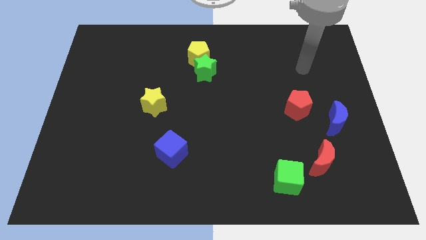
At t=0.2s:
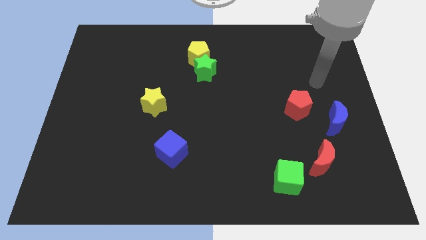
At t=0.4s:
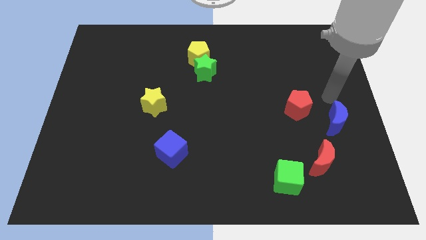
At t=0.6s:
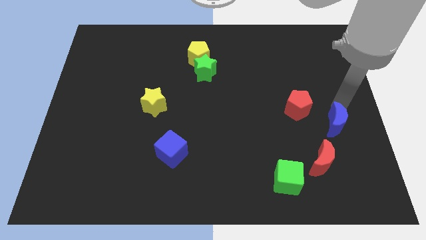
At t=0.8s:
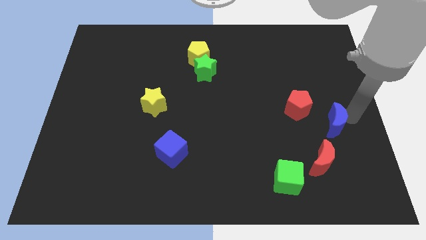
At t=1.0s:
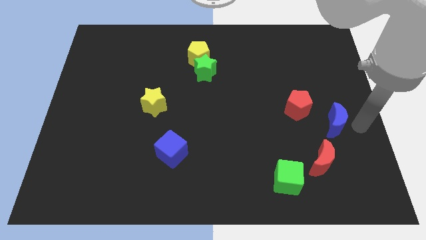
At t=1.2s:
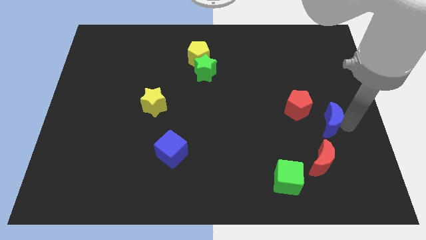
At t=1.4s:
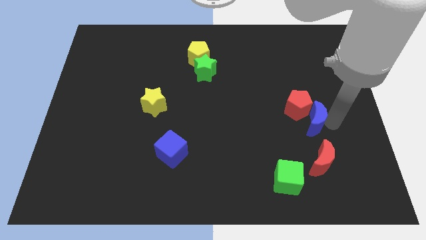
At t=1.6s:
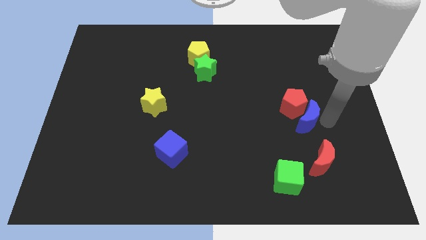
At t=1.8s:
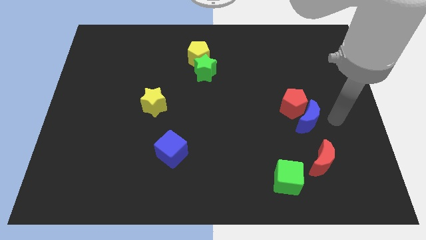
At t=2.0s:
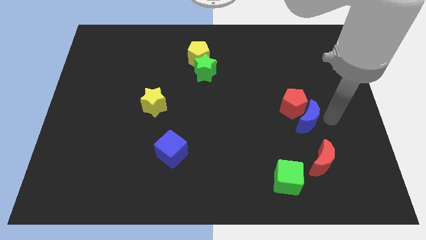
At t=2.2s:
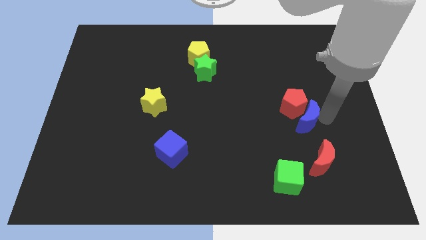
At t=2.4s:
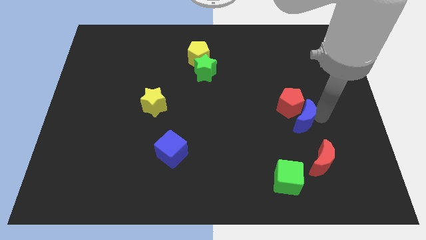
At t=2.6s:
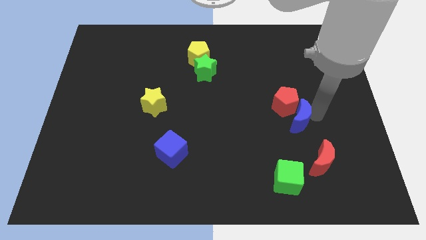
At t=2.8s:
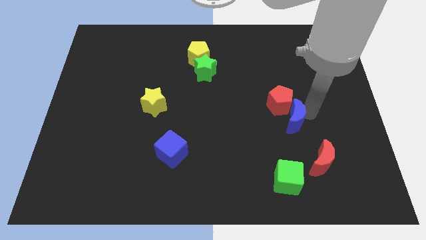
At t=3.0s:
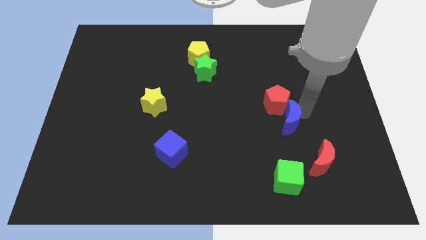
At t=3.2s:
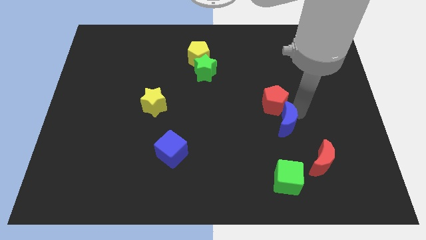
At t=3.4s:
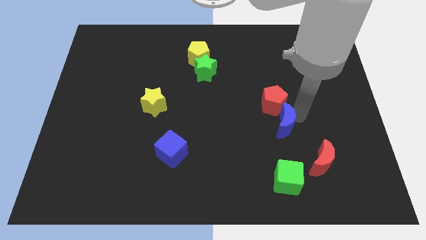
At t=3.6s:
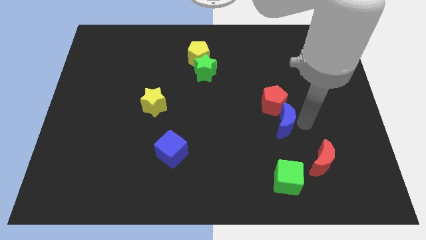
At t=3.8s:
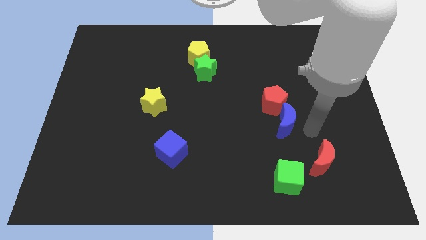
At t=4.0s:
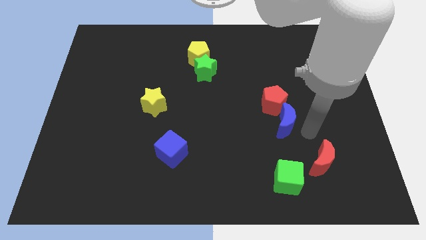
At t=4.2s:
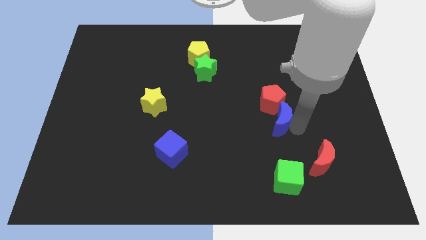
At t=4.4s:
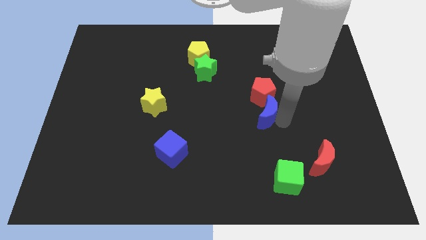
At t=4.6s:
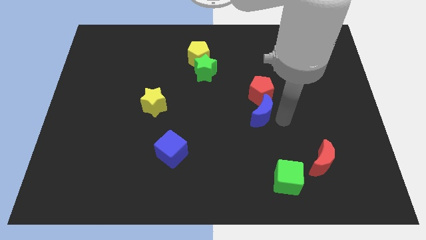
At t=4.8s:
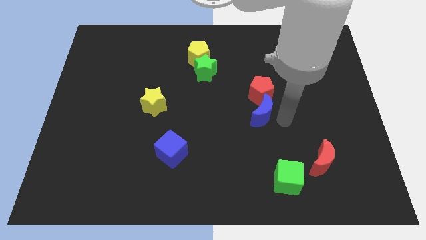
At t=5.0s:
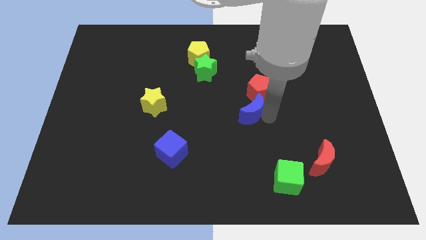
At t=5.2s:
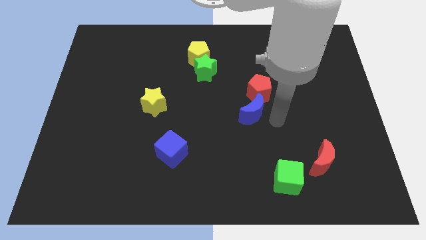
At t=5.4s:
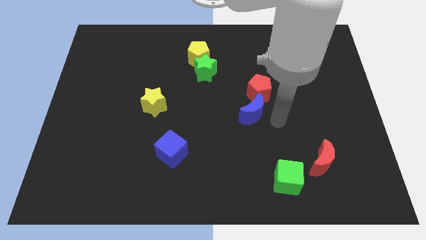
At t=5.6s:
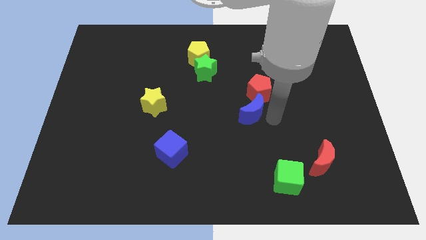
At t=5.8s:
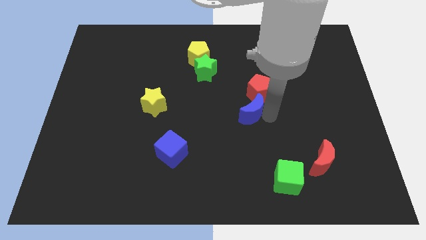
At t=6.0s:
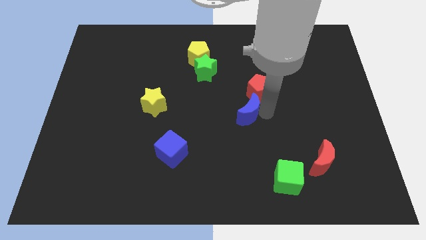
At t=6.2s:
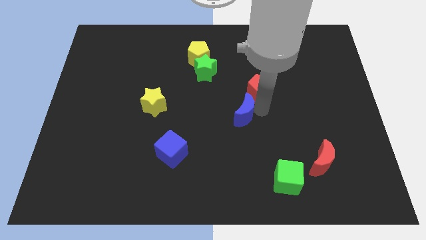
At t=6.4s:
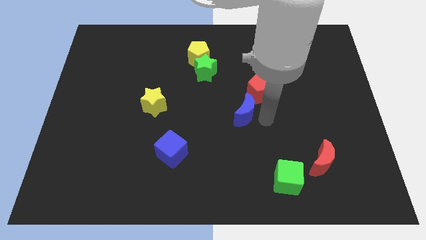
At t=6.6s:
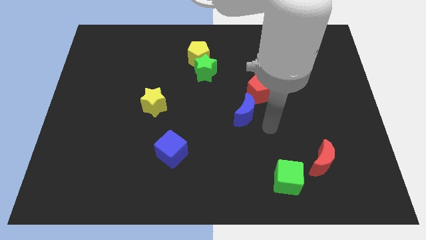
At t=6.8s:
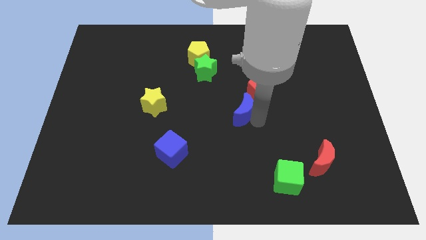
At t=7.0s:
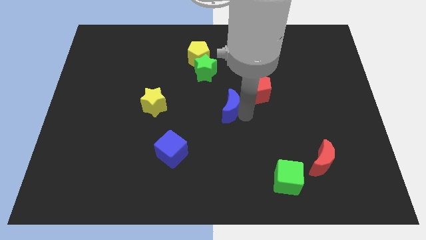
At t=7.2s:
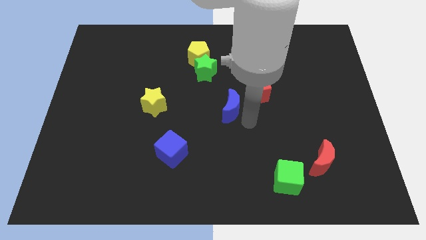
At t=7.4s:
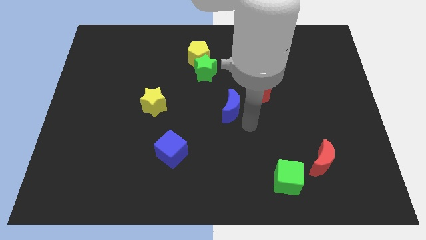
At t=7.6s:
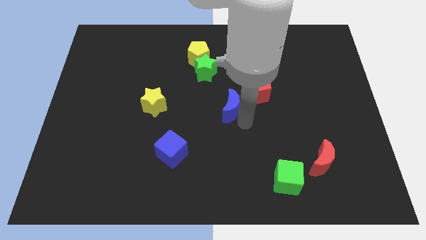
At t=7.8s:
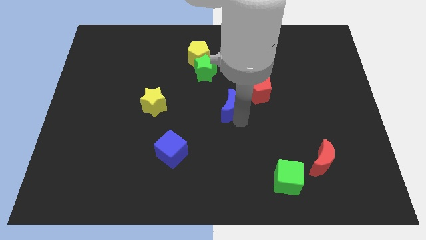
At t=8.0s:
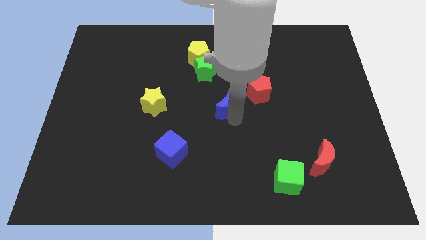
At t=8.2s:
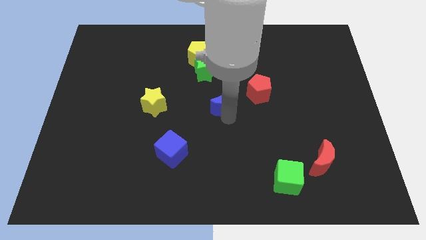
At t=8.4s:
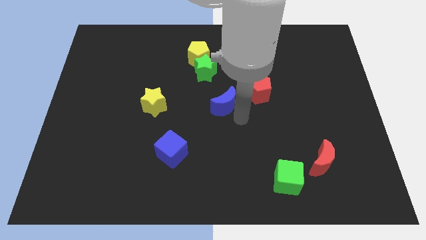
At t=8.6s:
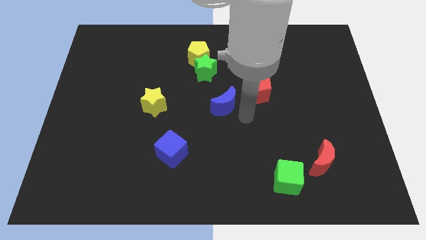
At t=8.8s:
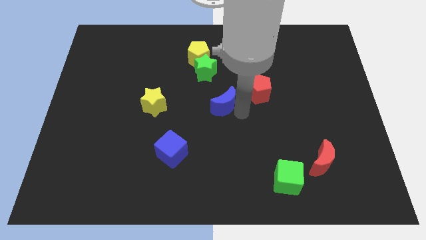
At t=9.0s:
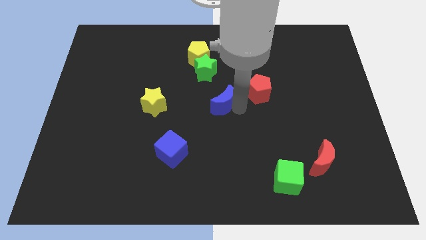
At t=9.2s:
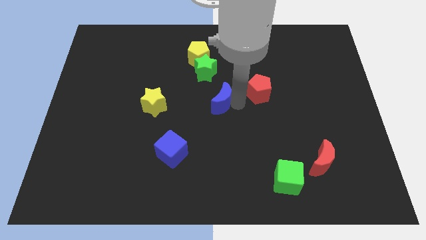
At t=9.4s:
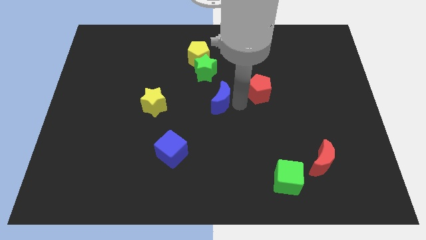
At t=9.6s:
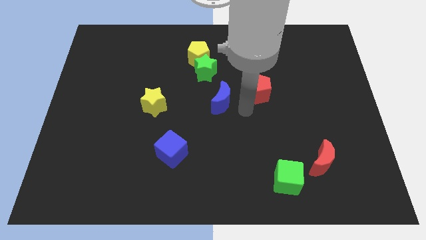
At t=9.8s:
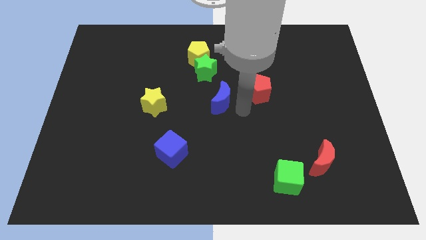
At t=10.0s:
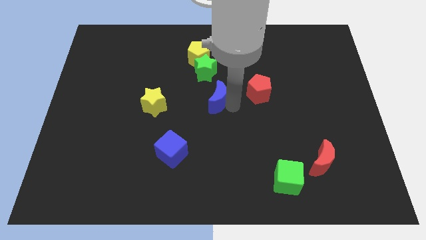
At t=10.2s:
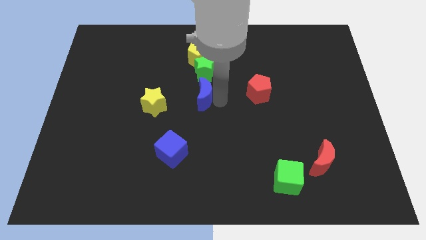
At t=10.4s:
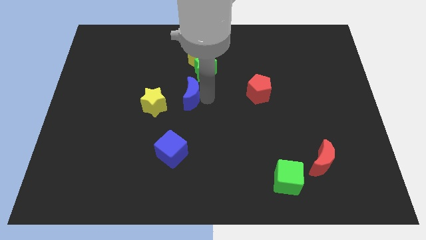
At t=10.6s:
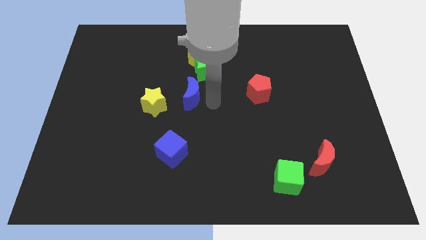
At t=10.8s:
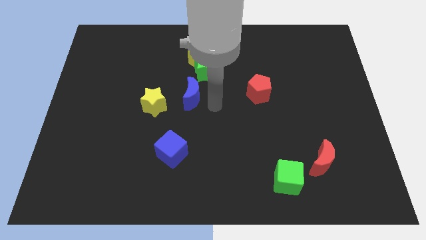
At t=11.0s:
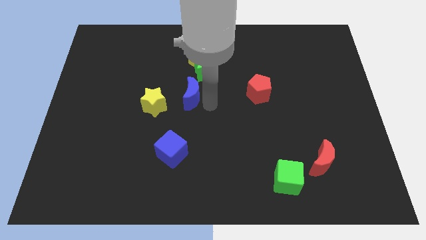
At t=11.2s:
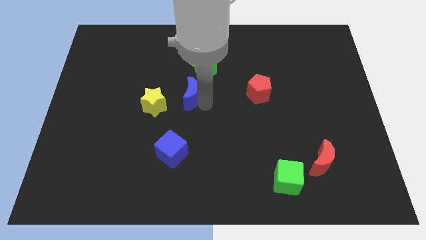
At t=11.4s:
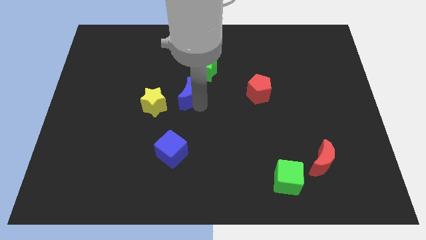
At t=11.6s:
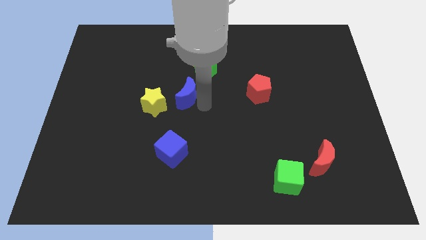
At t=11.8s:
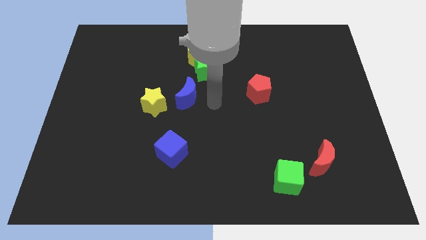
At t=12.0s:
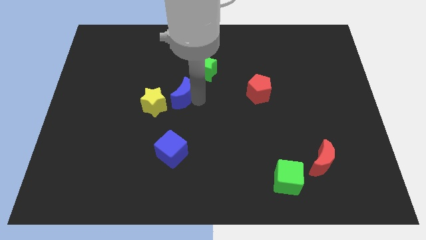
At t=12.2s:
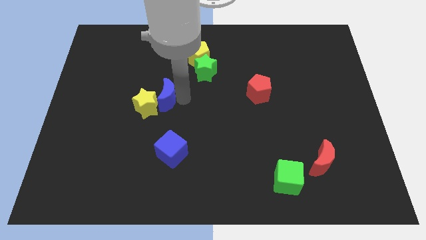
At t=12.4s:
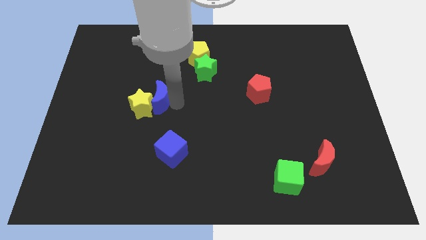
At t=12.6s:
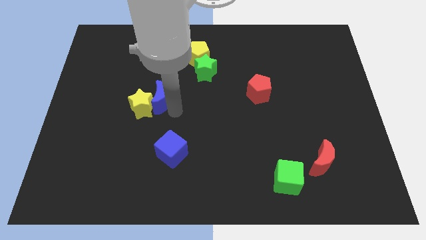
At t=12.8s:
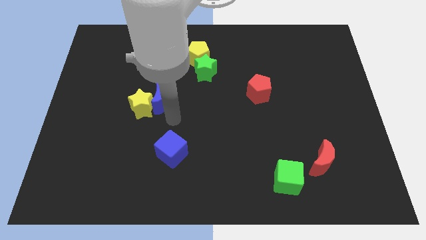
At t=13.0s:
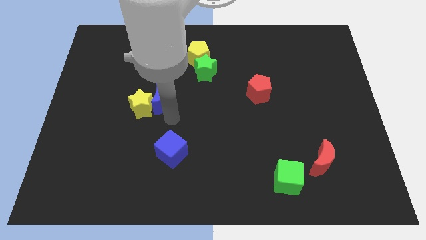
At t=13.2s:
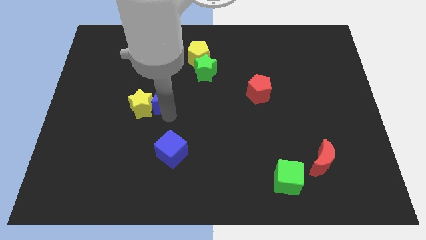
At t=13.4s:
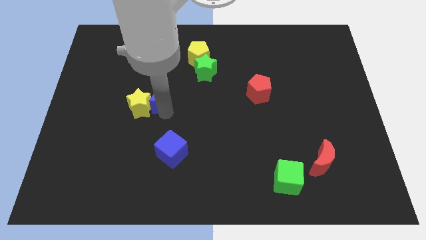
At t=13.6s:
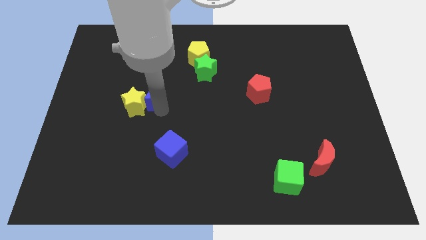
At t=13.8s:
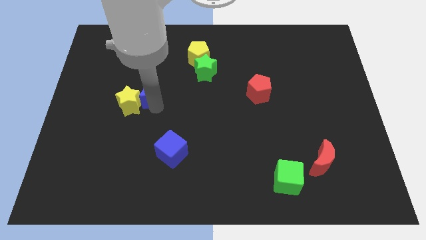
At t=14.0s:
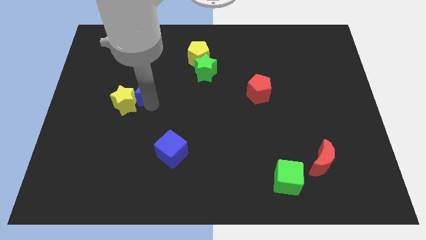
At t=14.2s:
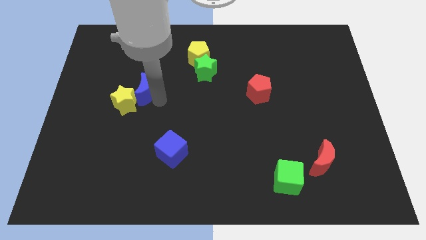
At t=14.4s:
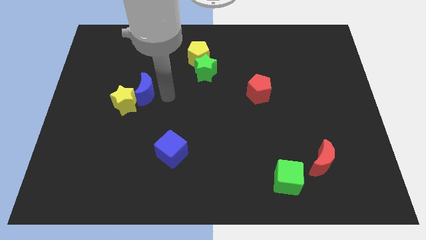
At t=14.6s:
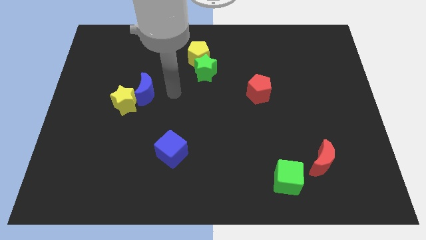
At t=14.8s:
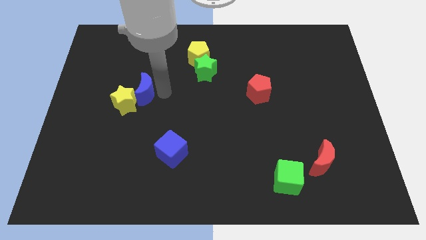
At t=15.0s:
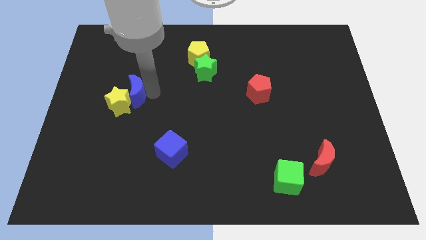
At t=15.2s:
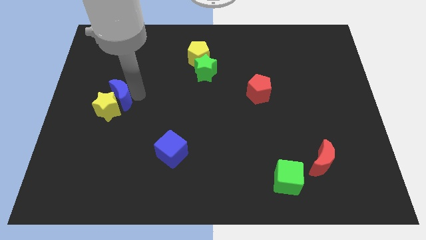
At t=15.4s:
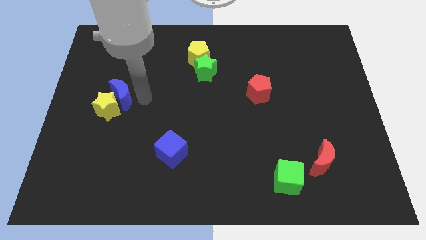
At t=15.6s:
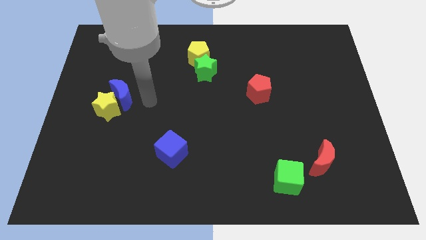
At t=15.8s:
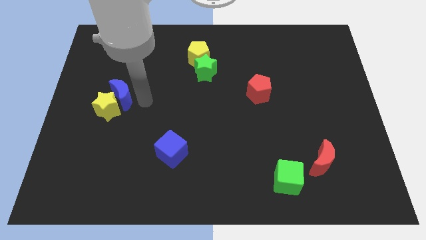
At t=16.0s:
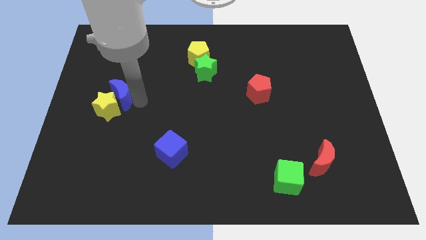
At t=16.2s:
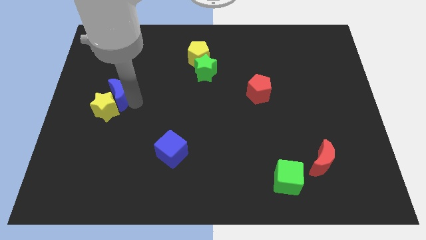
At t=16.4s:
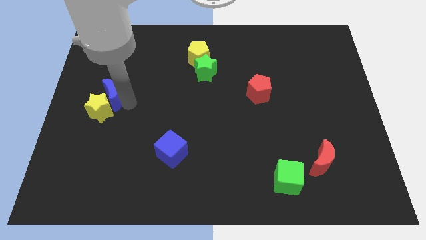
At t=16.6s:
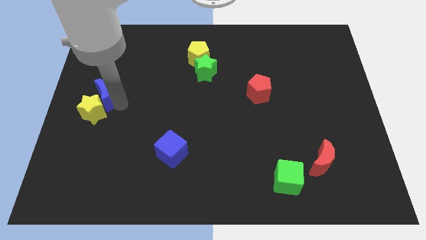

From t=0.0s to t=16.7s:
push the blue moon to the left side of the board
